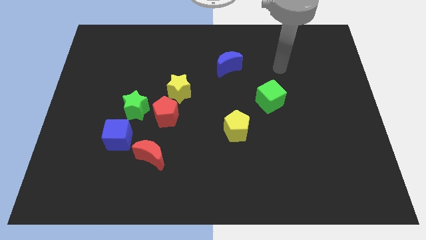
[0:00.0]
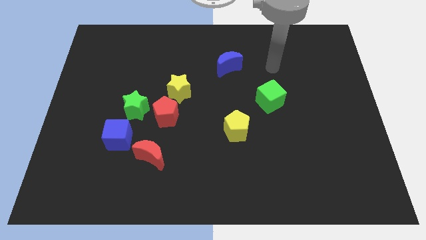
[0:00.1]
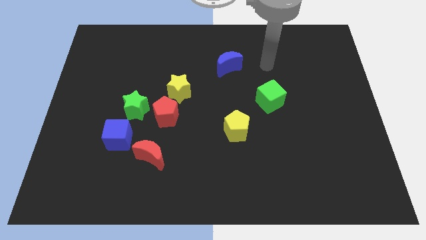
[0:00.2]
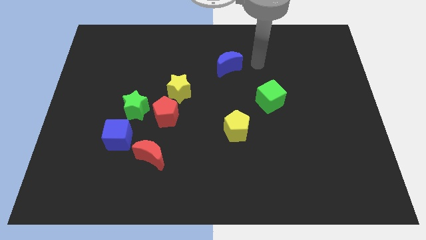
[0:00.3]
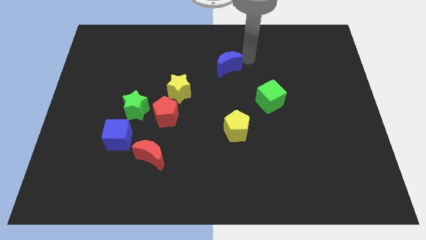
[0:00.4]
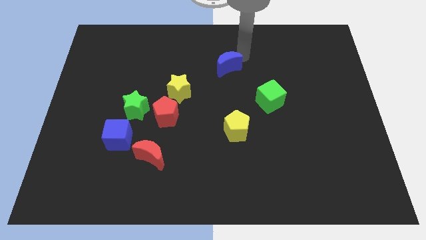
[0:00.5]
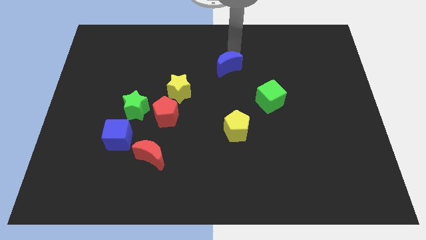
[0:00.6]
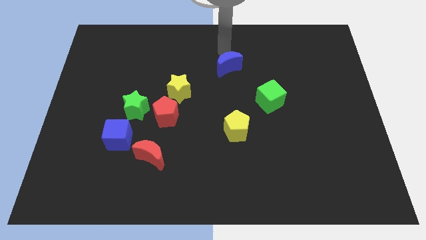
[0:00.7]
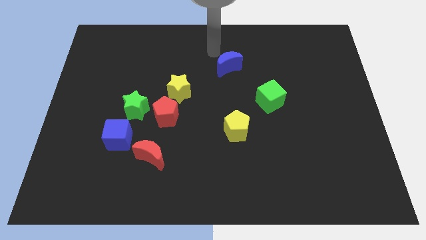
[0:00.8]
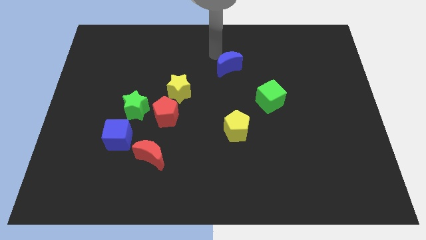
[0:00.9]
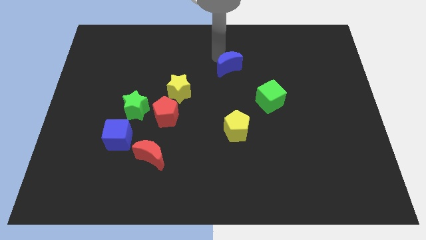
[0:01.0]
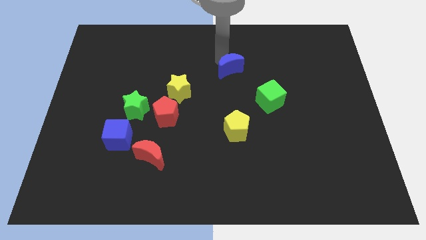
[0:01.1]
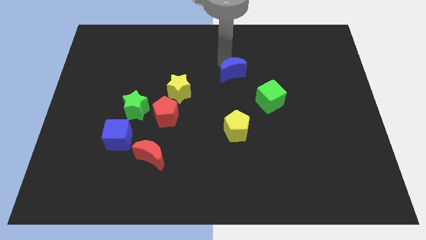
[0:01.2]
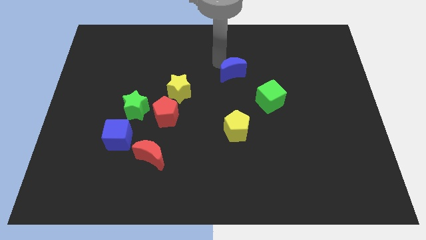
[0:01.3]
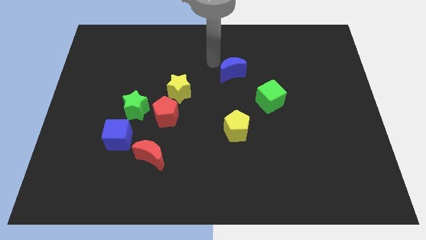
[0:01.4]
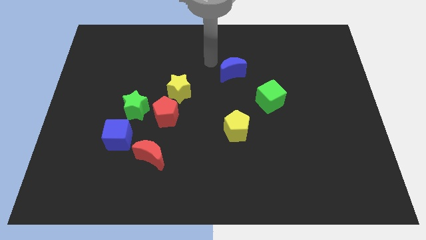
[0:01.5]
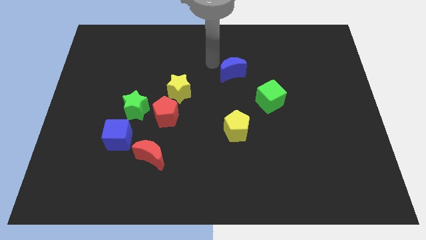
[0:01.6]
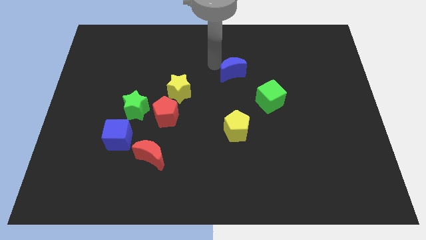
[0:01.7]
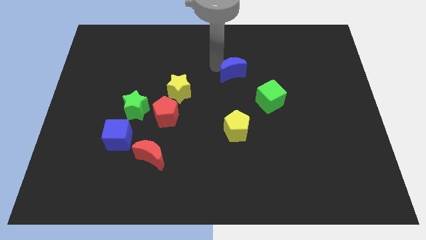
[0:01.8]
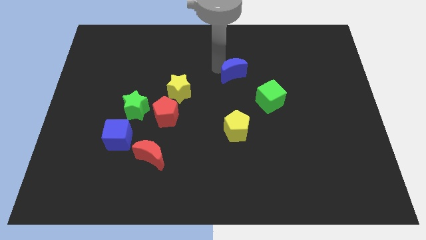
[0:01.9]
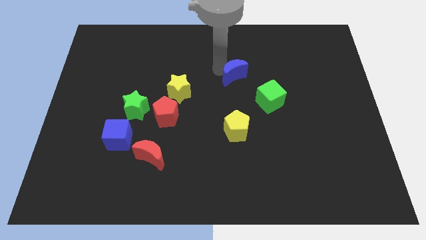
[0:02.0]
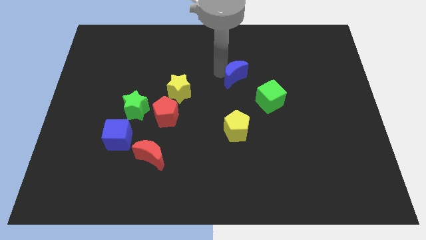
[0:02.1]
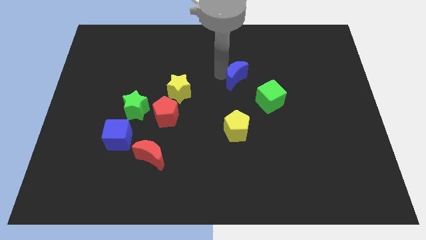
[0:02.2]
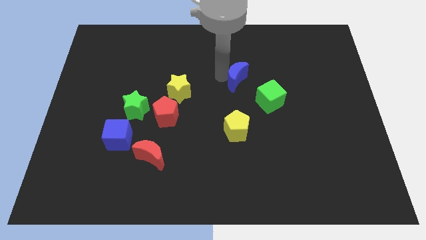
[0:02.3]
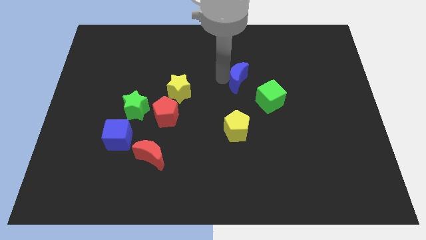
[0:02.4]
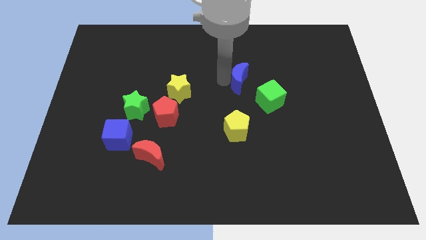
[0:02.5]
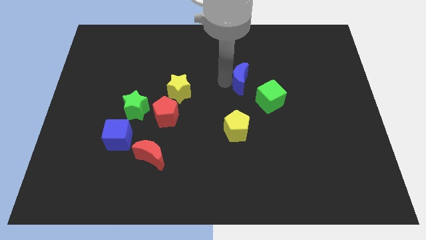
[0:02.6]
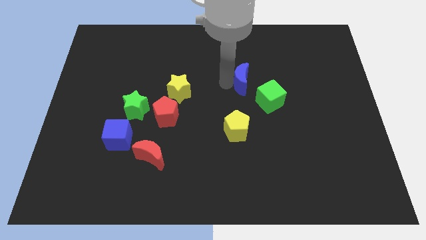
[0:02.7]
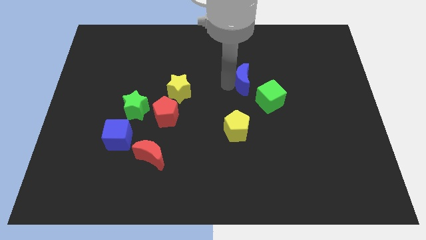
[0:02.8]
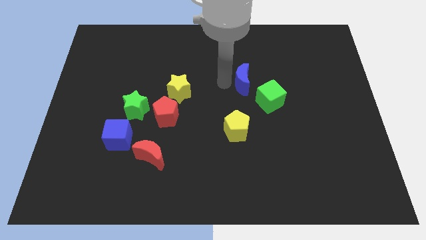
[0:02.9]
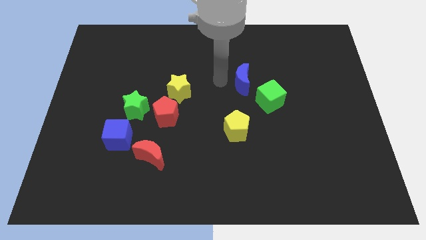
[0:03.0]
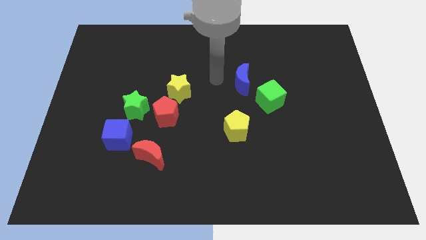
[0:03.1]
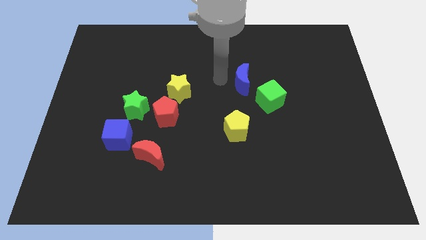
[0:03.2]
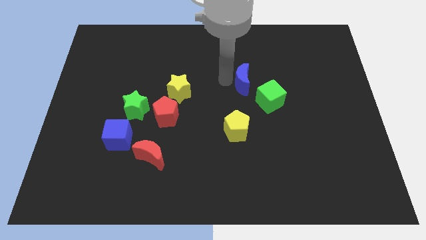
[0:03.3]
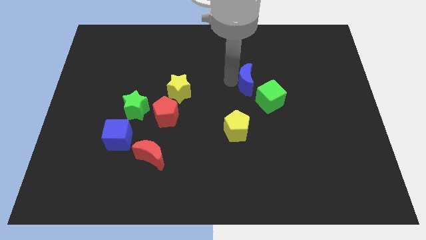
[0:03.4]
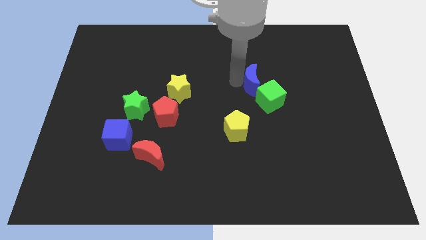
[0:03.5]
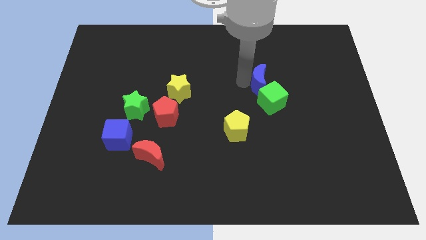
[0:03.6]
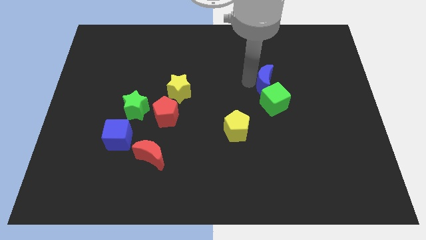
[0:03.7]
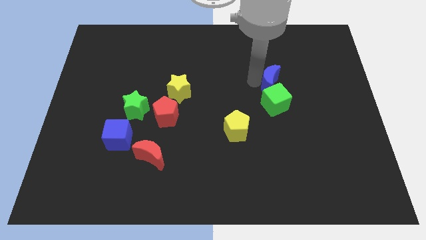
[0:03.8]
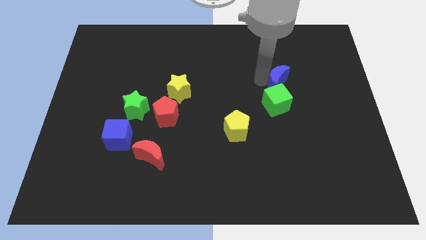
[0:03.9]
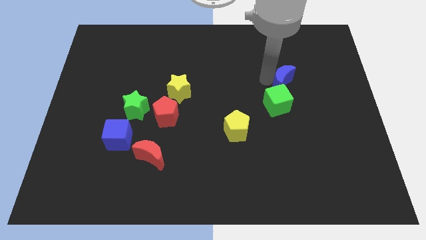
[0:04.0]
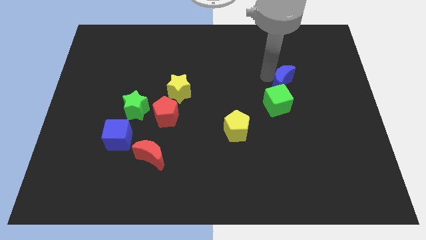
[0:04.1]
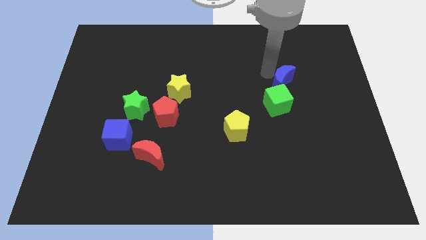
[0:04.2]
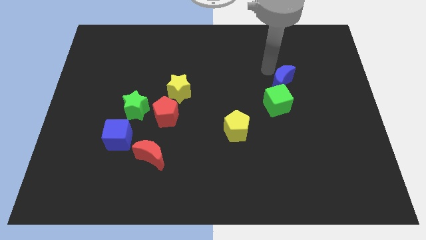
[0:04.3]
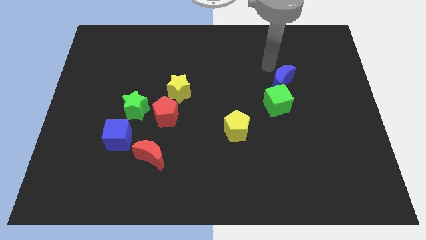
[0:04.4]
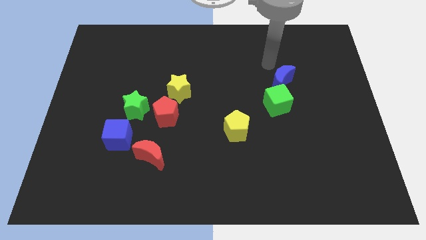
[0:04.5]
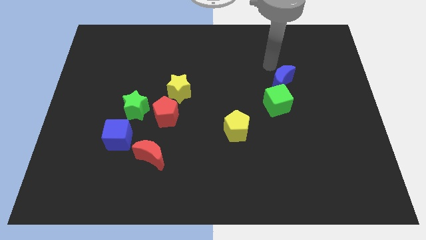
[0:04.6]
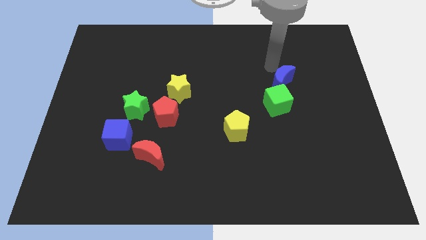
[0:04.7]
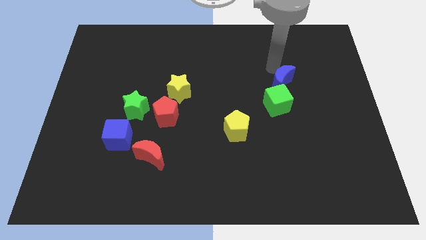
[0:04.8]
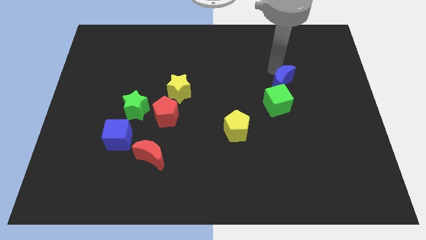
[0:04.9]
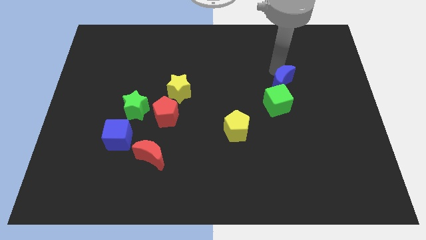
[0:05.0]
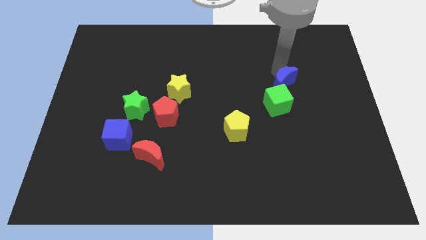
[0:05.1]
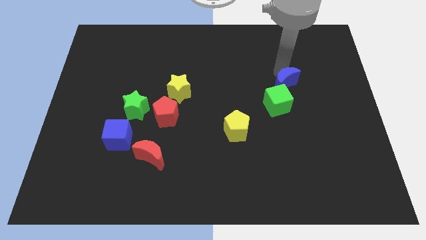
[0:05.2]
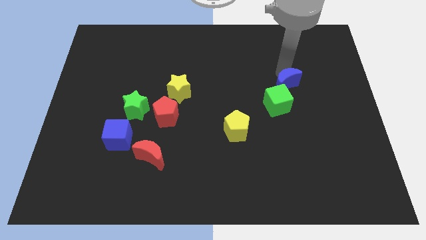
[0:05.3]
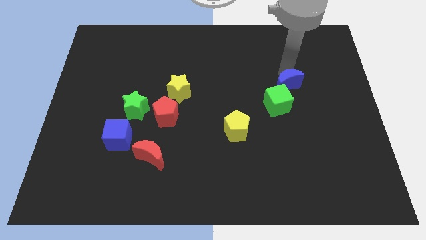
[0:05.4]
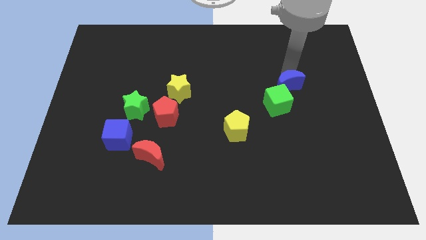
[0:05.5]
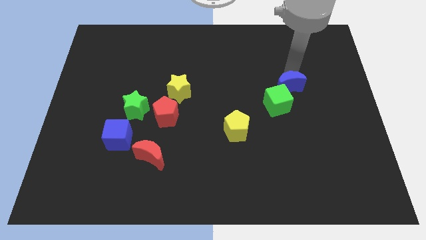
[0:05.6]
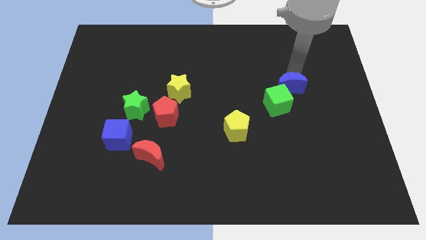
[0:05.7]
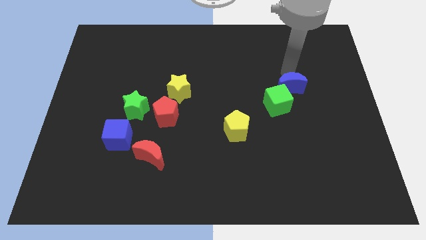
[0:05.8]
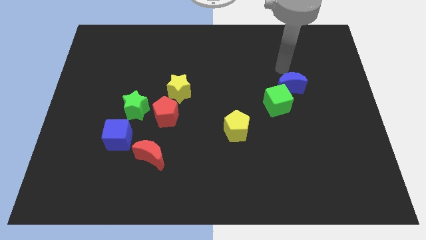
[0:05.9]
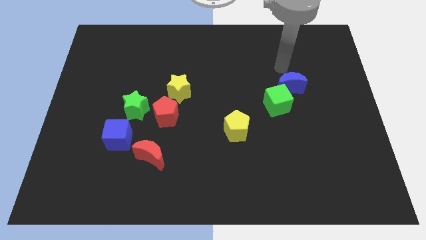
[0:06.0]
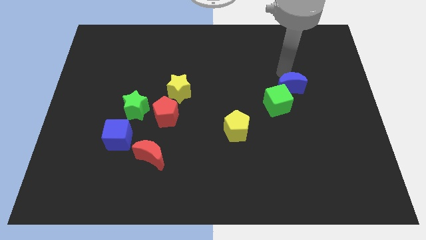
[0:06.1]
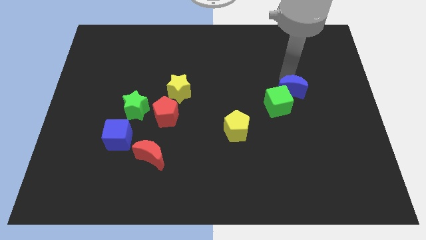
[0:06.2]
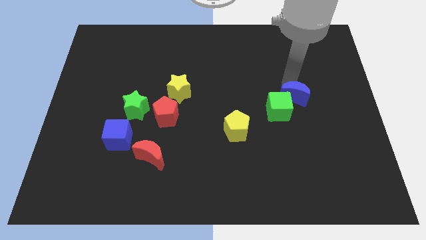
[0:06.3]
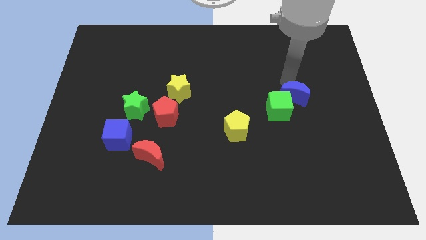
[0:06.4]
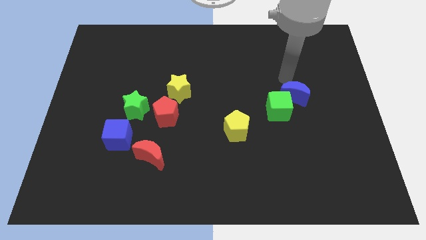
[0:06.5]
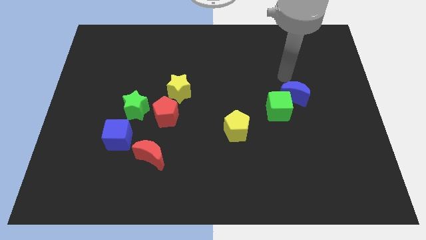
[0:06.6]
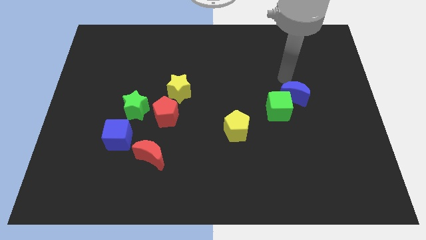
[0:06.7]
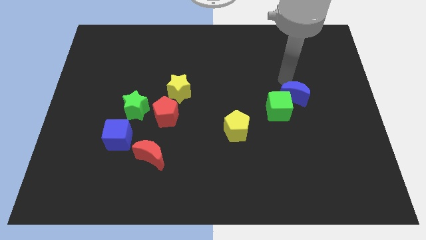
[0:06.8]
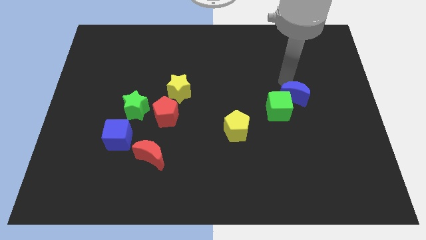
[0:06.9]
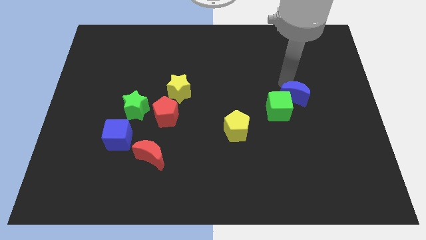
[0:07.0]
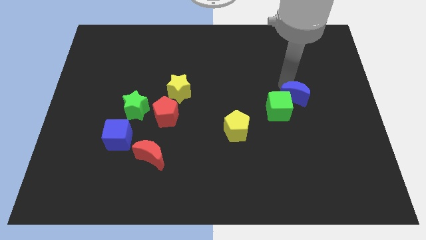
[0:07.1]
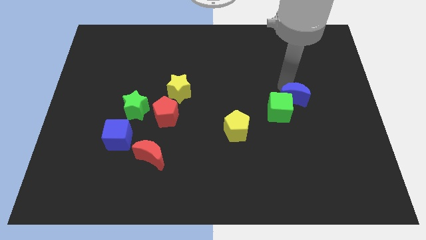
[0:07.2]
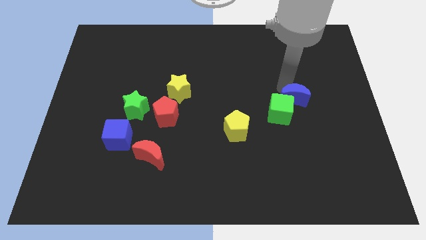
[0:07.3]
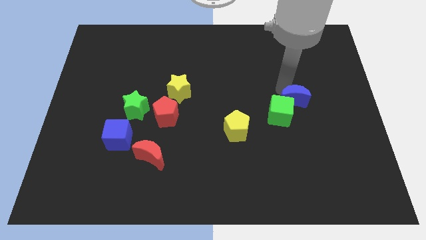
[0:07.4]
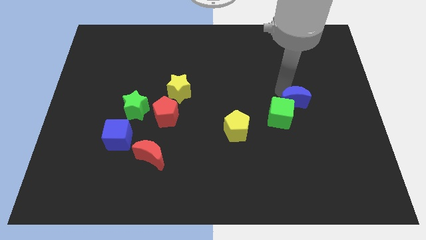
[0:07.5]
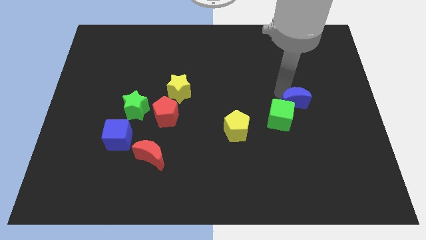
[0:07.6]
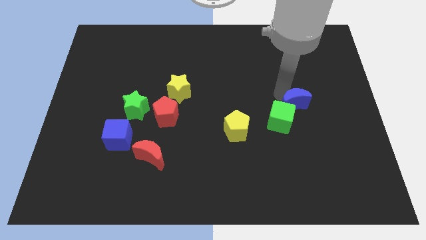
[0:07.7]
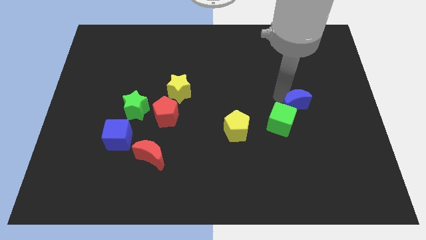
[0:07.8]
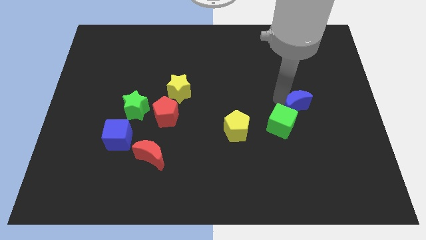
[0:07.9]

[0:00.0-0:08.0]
slide the blue moon down and right diagonally

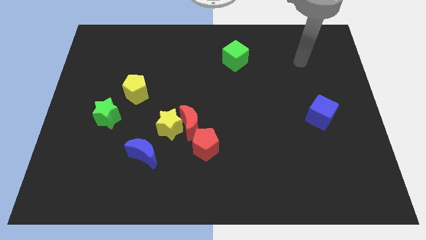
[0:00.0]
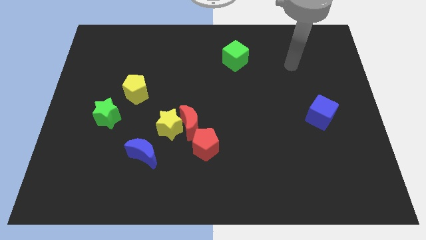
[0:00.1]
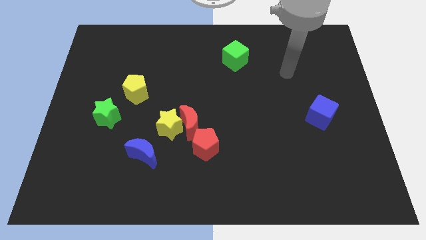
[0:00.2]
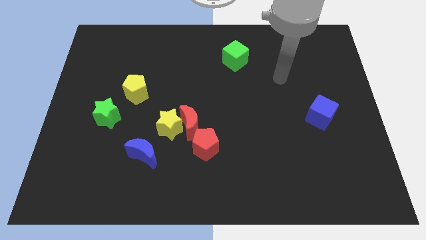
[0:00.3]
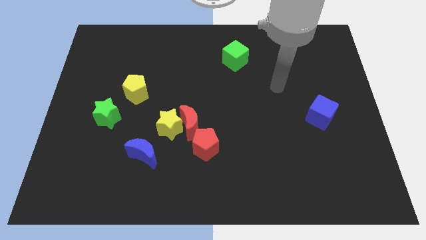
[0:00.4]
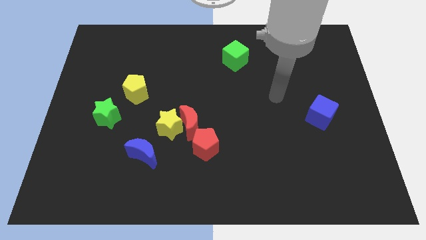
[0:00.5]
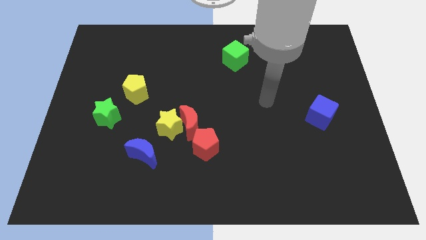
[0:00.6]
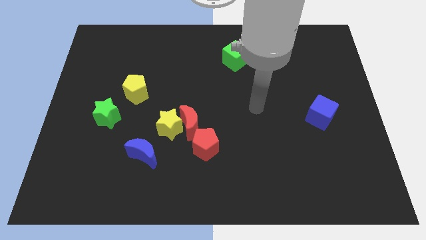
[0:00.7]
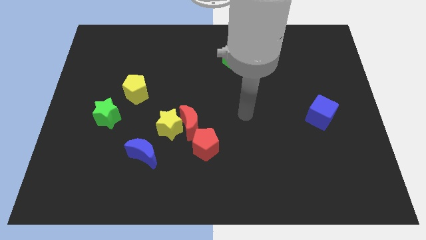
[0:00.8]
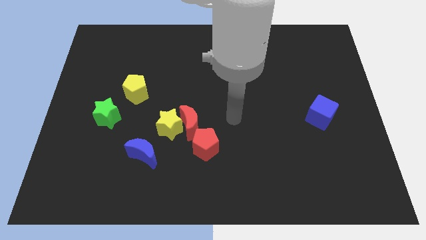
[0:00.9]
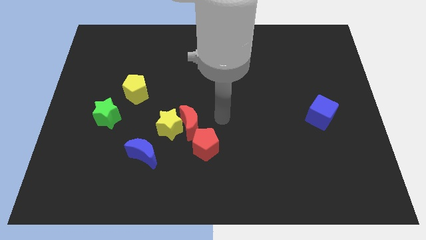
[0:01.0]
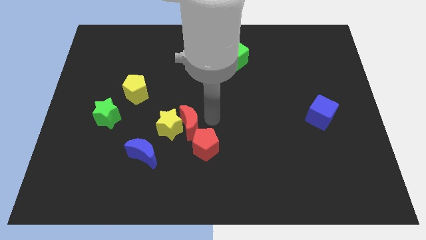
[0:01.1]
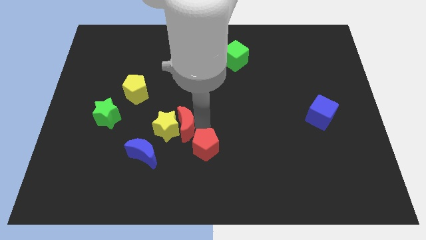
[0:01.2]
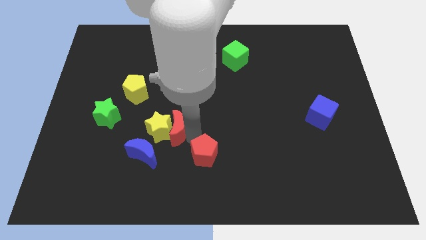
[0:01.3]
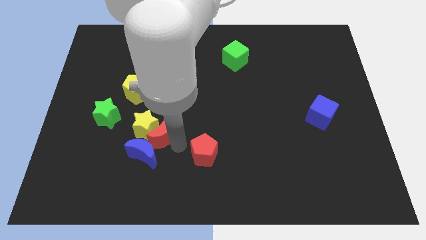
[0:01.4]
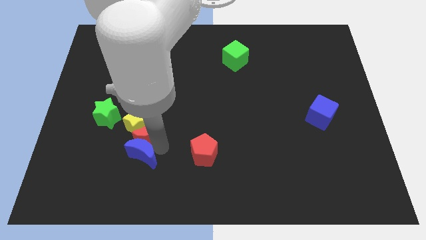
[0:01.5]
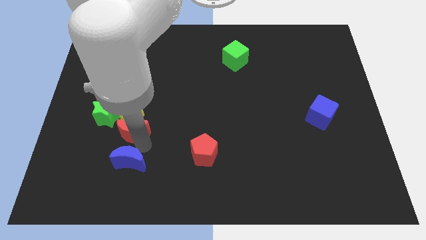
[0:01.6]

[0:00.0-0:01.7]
push the yellow star somewhat up and to the left diagonally
